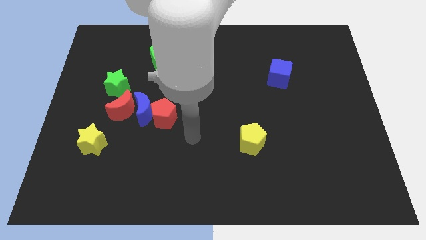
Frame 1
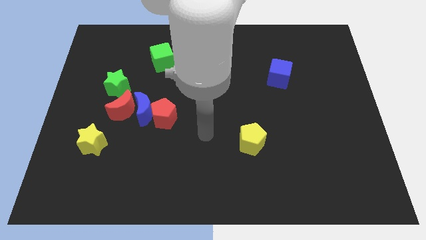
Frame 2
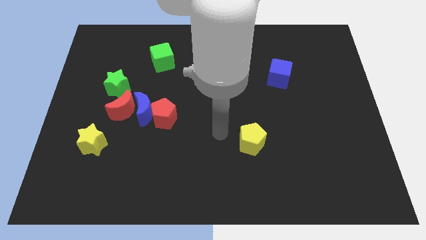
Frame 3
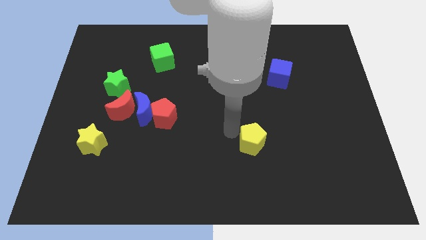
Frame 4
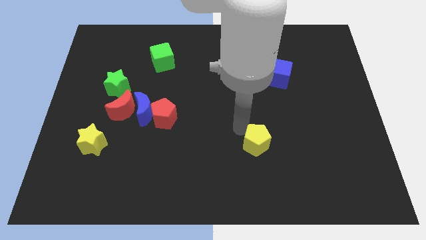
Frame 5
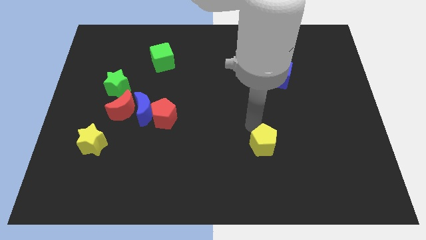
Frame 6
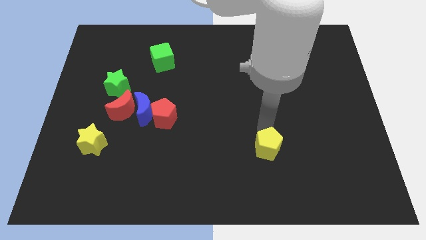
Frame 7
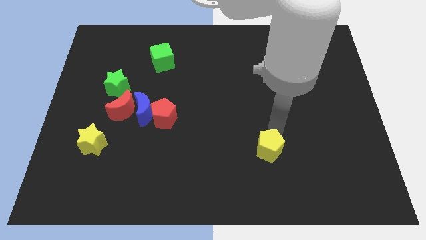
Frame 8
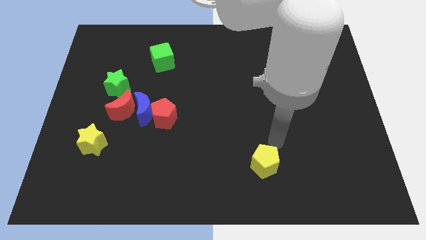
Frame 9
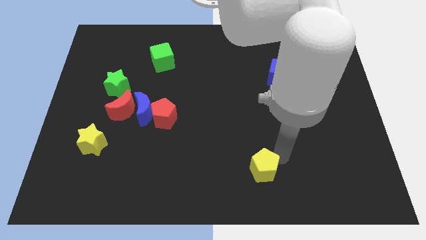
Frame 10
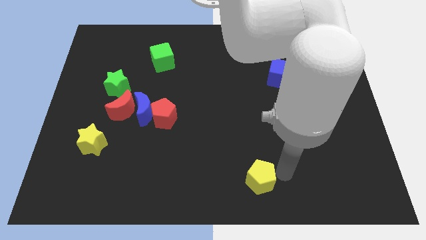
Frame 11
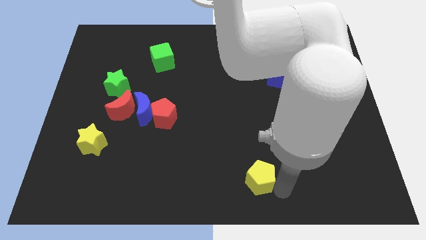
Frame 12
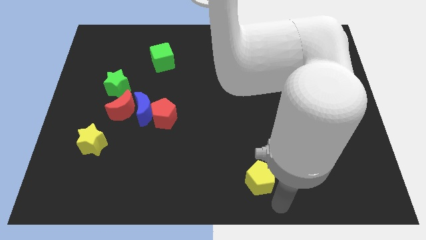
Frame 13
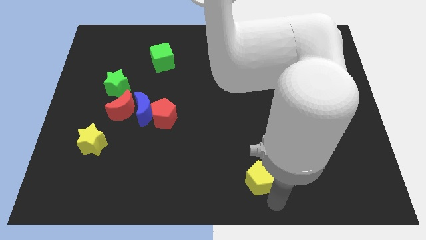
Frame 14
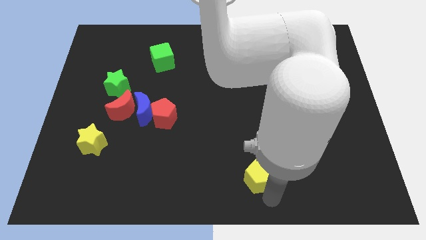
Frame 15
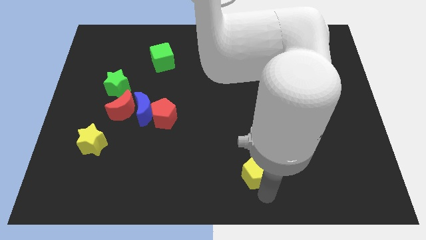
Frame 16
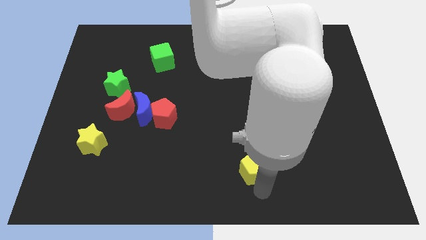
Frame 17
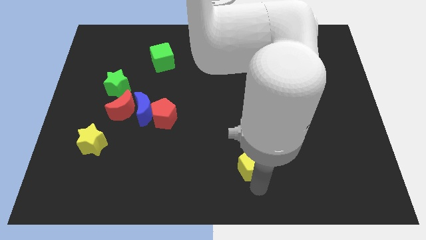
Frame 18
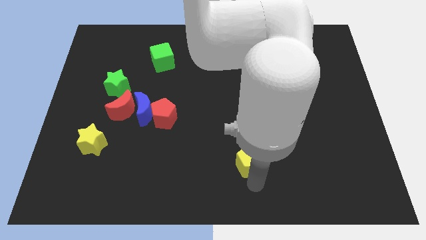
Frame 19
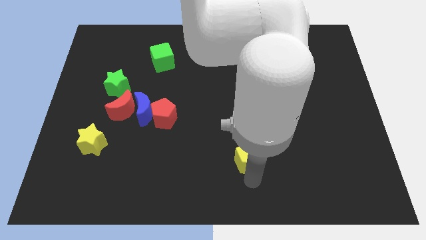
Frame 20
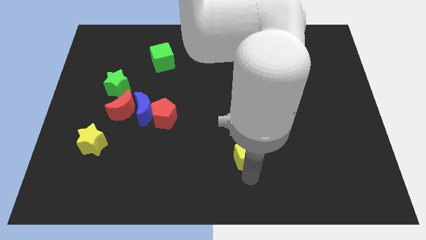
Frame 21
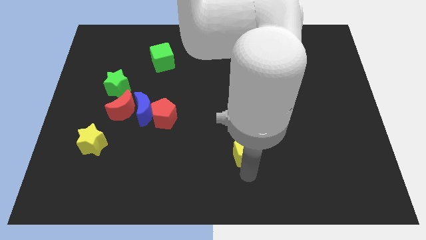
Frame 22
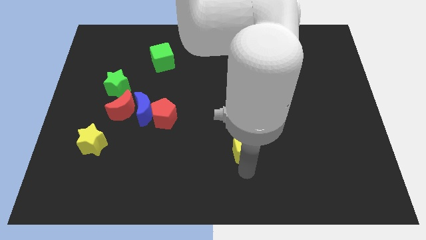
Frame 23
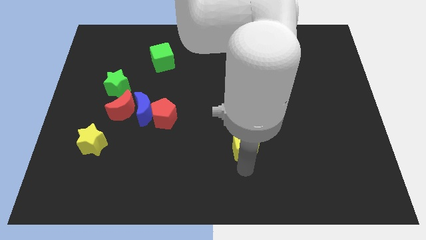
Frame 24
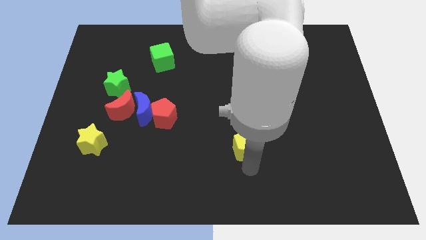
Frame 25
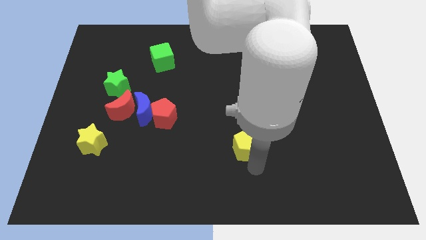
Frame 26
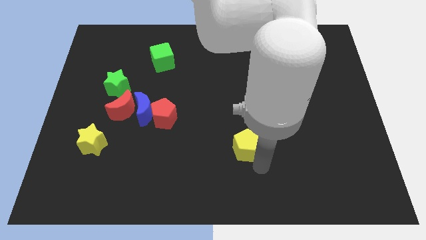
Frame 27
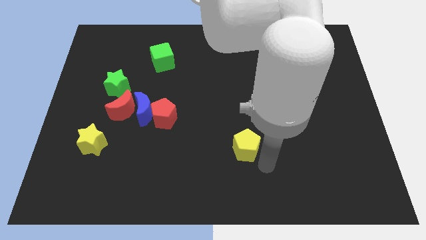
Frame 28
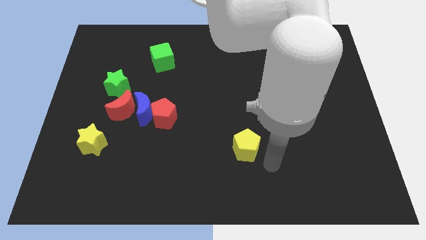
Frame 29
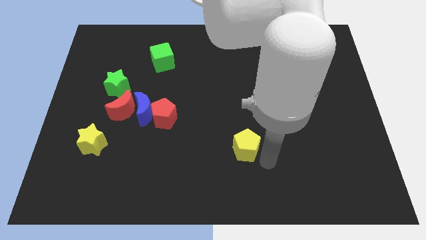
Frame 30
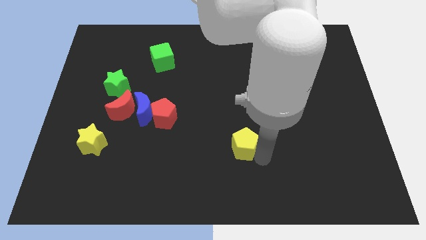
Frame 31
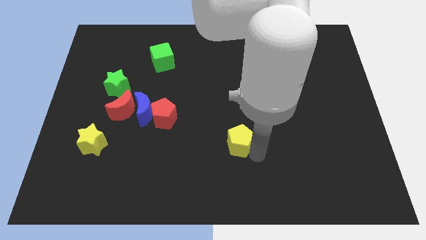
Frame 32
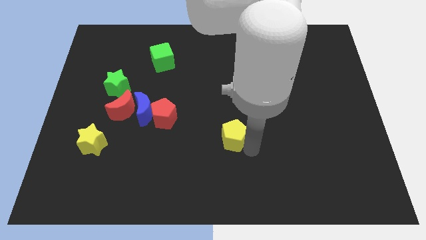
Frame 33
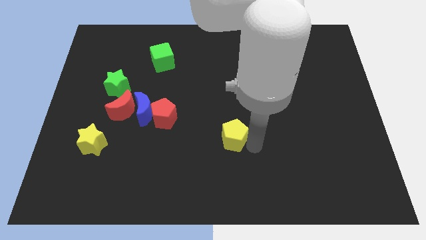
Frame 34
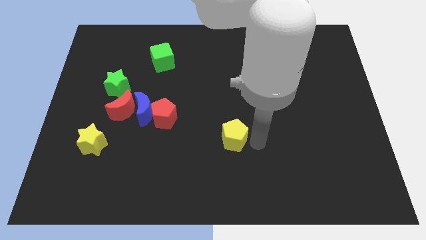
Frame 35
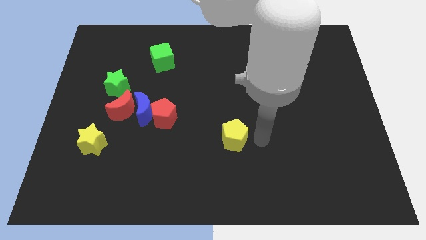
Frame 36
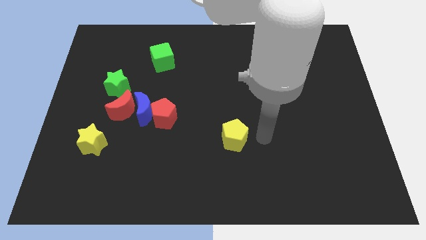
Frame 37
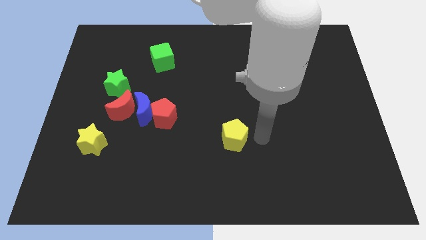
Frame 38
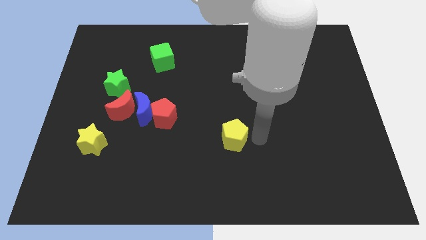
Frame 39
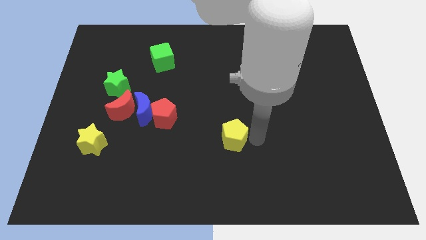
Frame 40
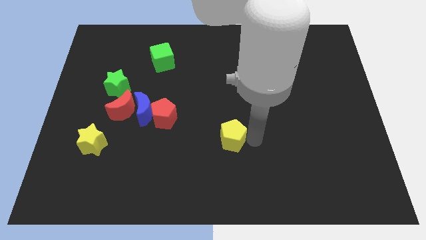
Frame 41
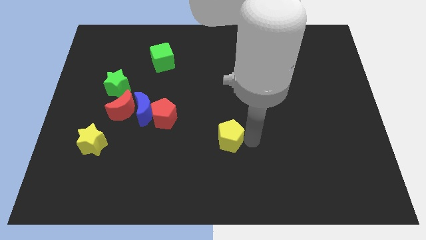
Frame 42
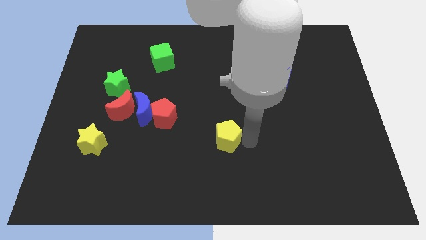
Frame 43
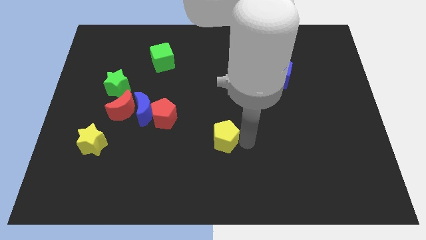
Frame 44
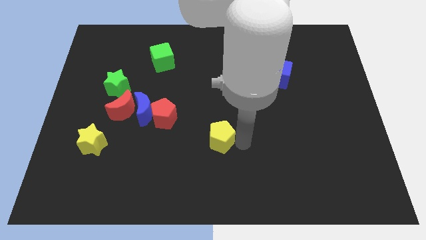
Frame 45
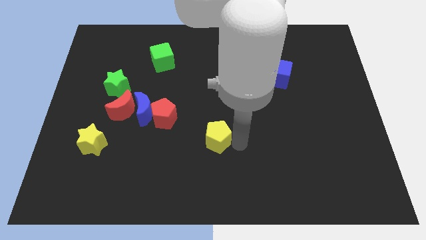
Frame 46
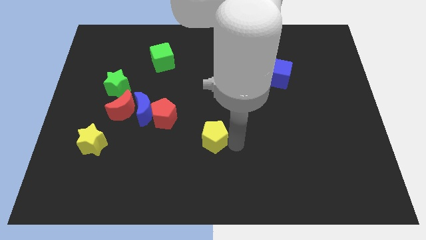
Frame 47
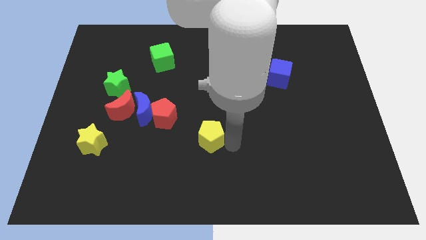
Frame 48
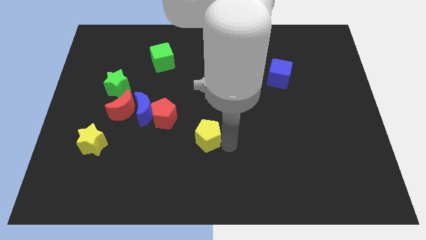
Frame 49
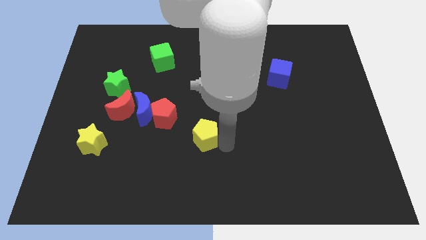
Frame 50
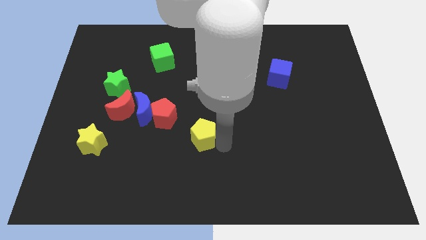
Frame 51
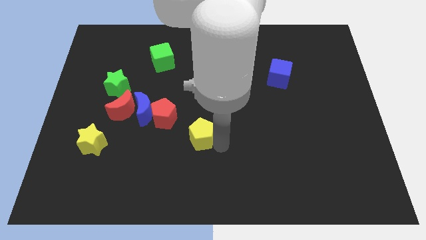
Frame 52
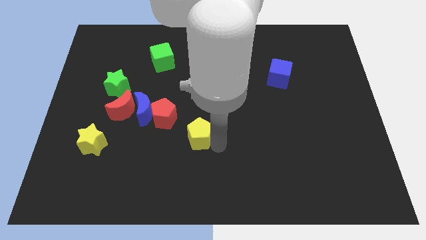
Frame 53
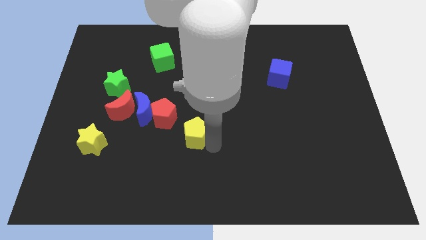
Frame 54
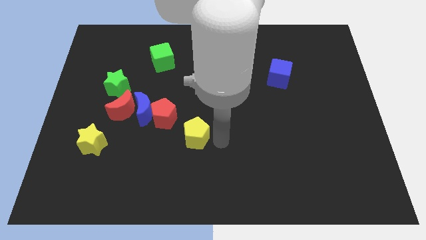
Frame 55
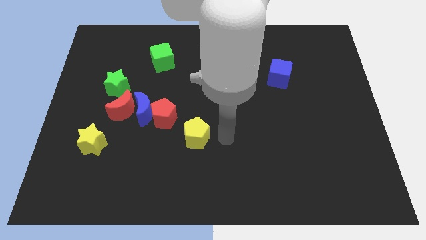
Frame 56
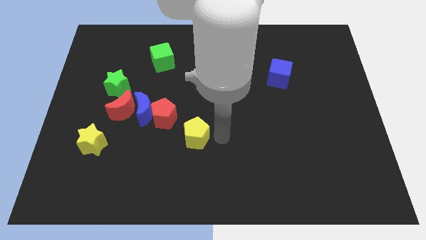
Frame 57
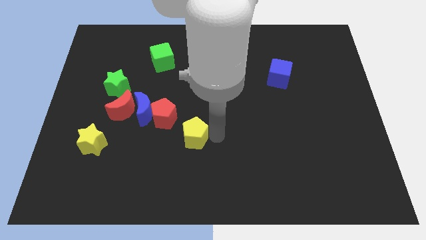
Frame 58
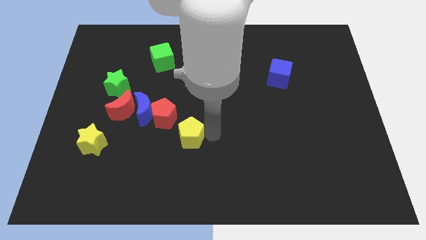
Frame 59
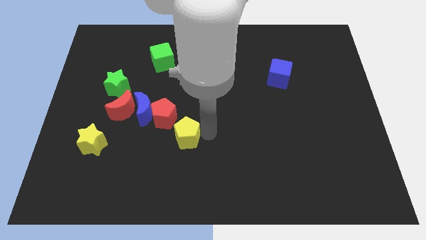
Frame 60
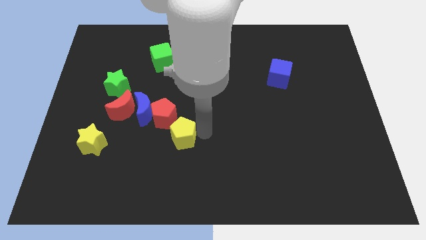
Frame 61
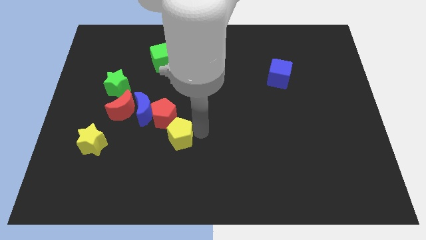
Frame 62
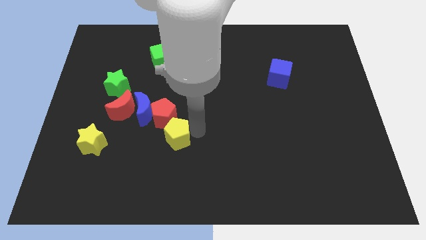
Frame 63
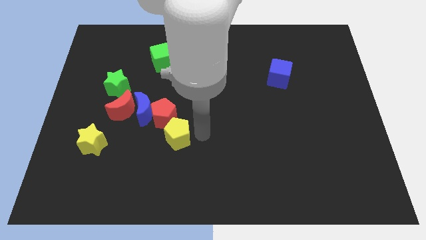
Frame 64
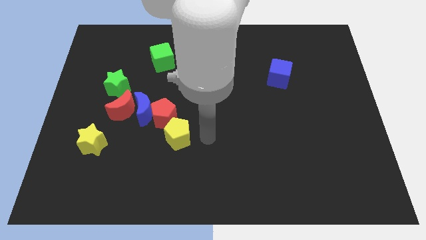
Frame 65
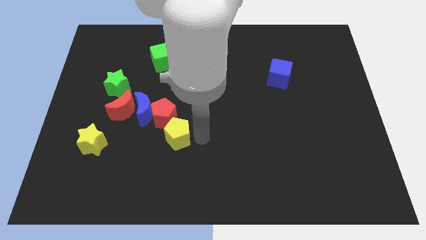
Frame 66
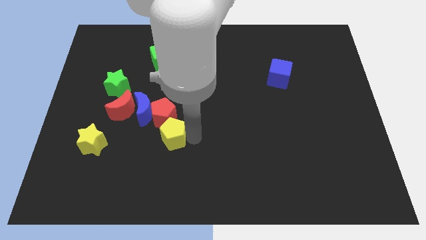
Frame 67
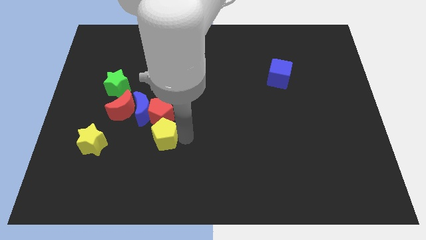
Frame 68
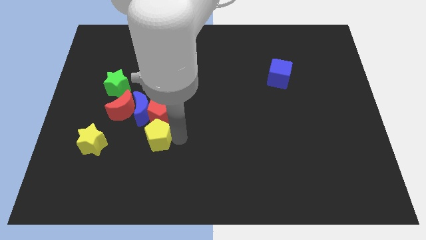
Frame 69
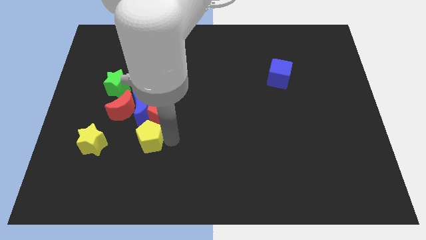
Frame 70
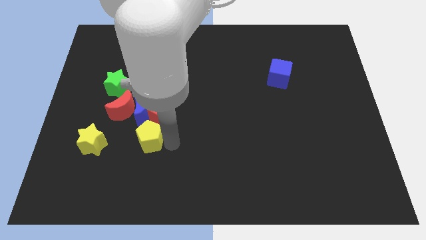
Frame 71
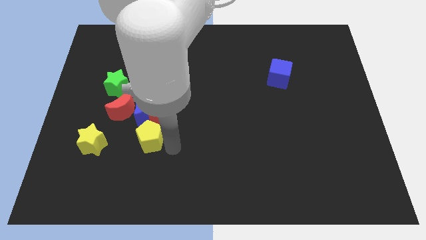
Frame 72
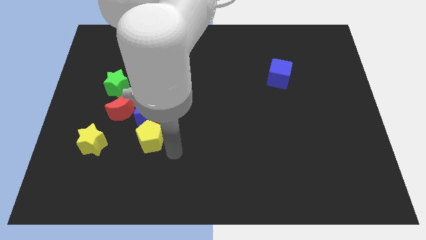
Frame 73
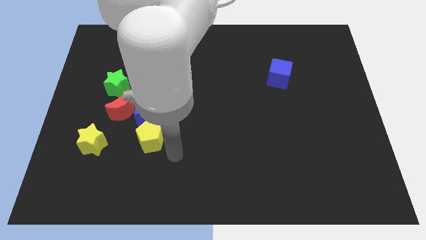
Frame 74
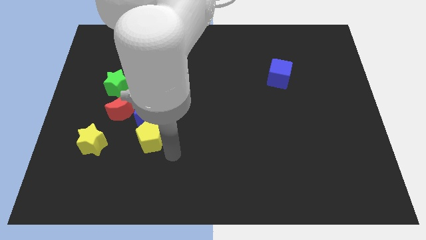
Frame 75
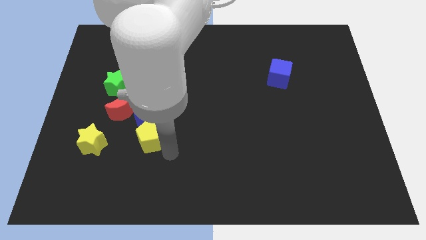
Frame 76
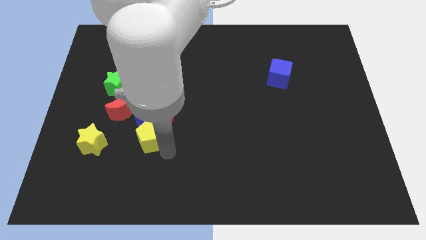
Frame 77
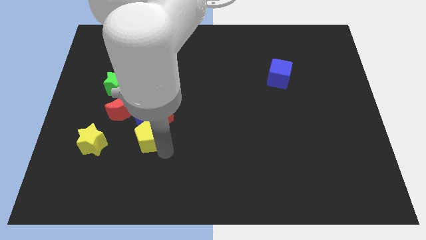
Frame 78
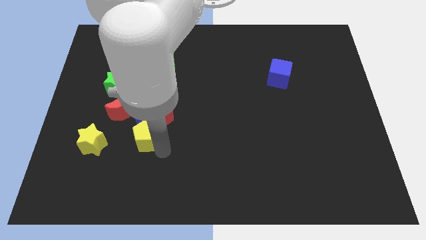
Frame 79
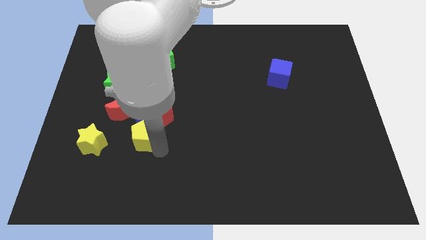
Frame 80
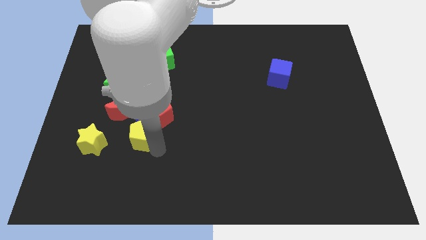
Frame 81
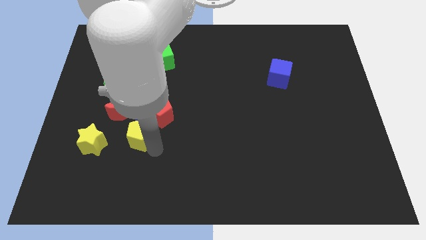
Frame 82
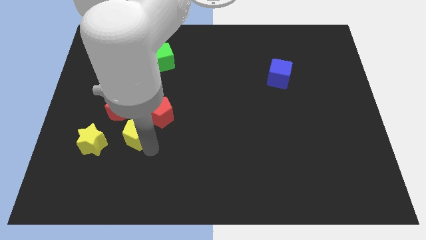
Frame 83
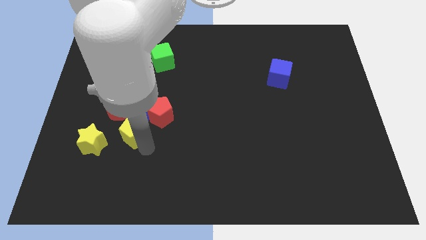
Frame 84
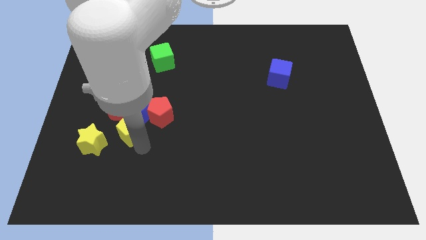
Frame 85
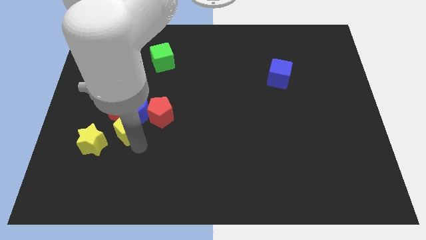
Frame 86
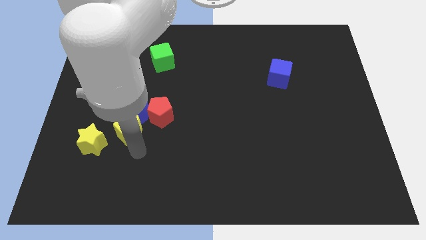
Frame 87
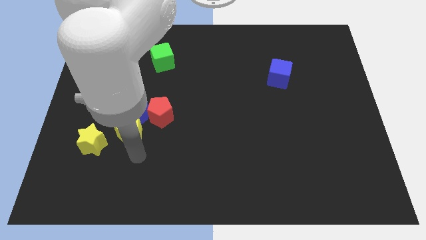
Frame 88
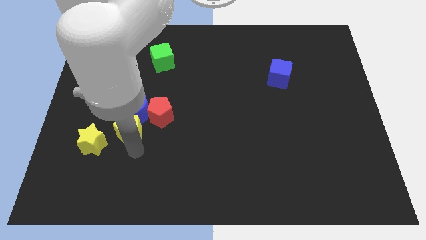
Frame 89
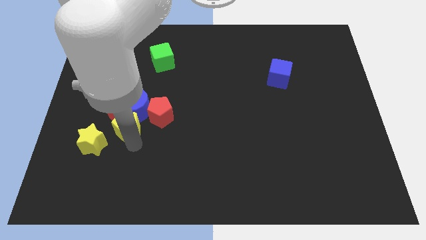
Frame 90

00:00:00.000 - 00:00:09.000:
push the yellow pentagon towards the red moon
